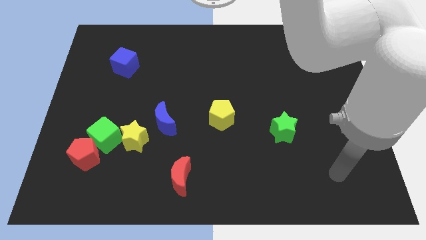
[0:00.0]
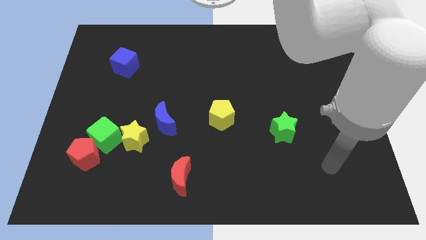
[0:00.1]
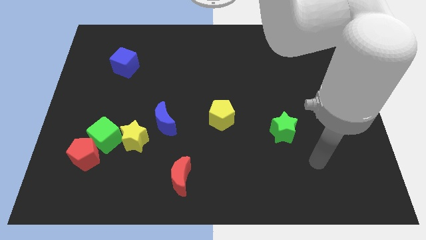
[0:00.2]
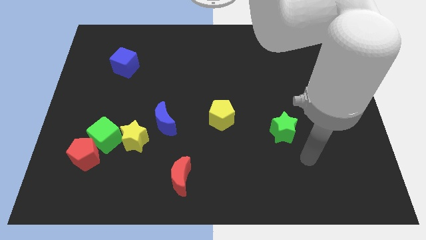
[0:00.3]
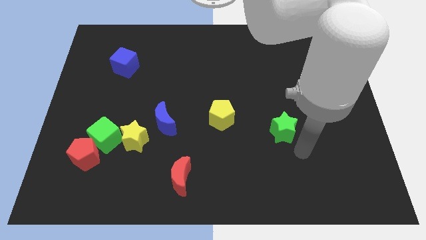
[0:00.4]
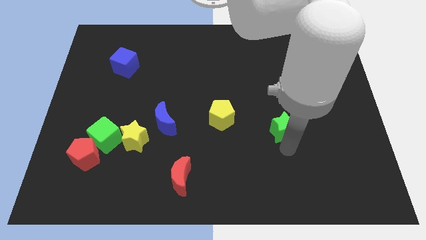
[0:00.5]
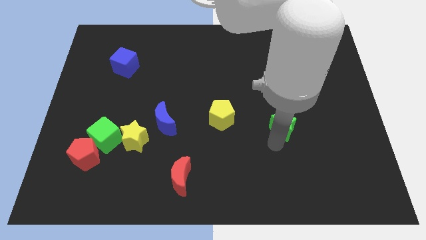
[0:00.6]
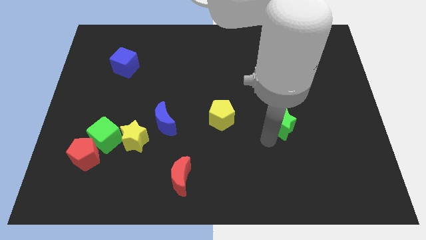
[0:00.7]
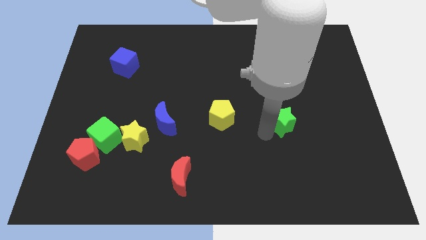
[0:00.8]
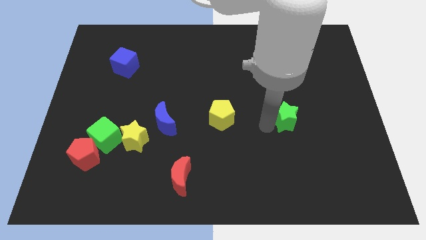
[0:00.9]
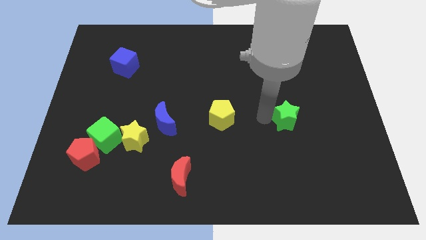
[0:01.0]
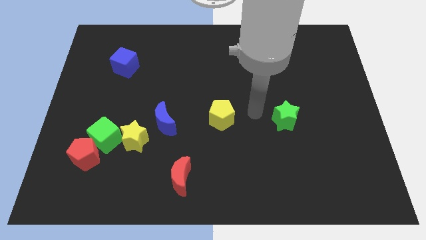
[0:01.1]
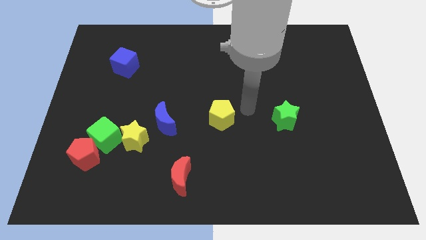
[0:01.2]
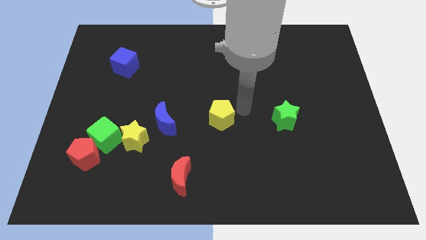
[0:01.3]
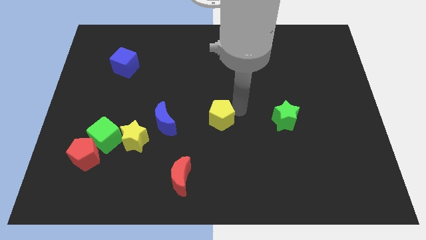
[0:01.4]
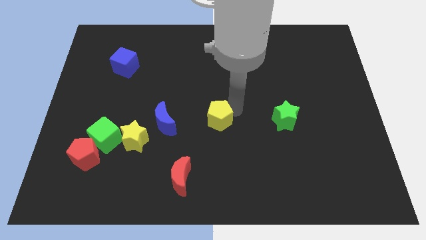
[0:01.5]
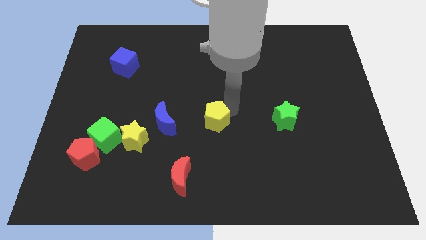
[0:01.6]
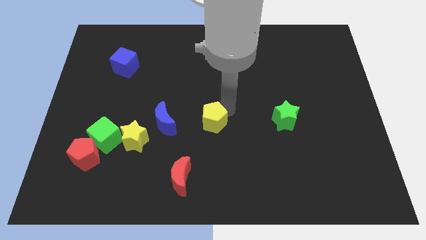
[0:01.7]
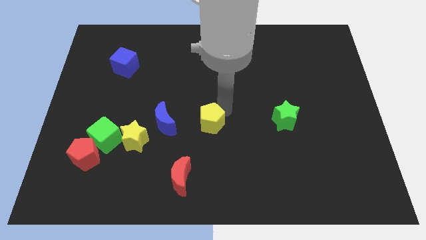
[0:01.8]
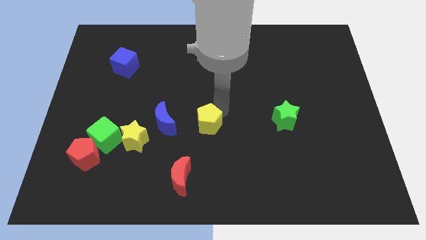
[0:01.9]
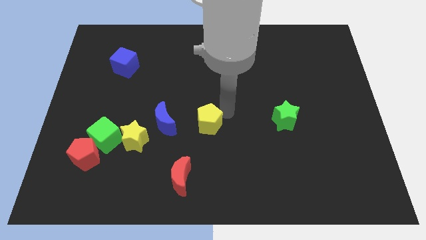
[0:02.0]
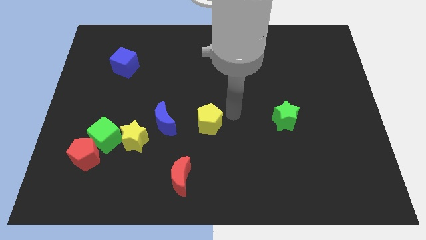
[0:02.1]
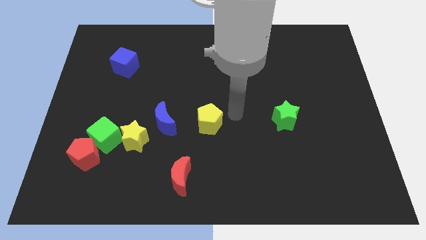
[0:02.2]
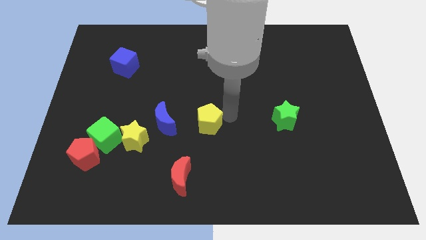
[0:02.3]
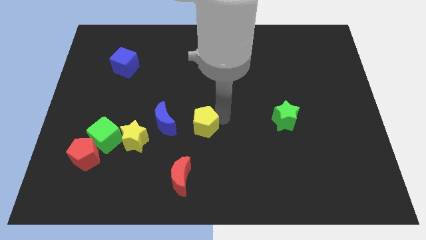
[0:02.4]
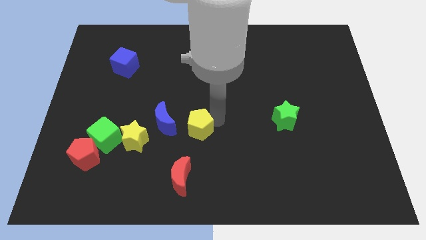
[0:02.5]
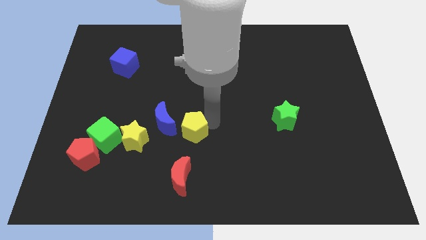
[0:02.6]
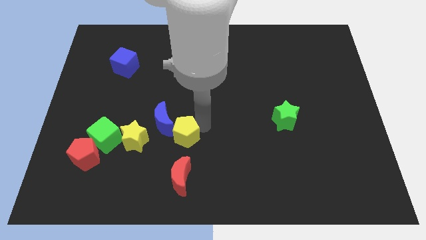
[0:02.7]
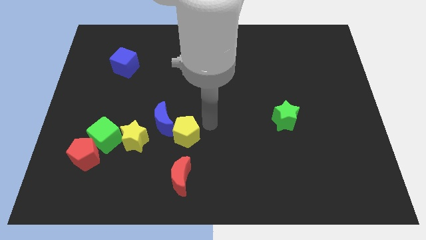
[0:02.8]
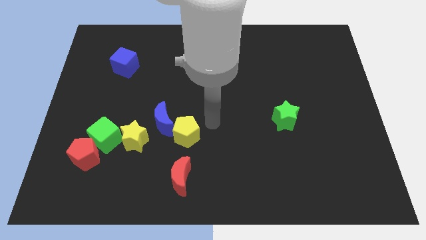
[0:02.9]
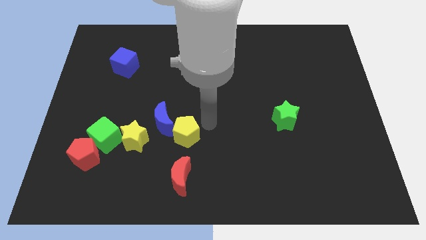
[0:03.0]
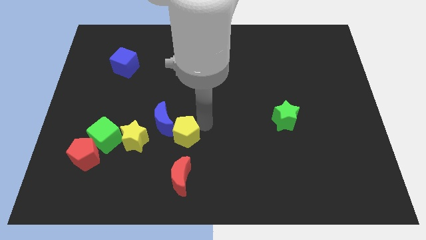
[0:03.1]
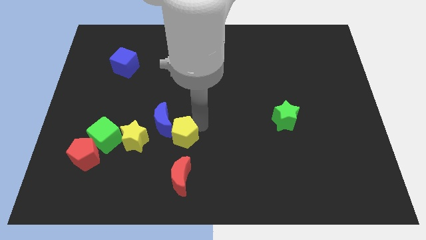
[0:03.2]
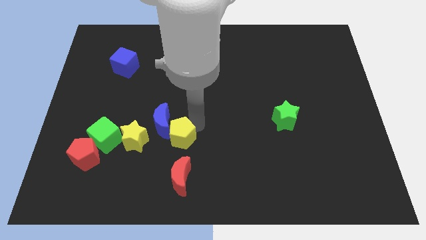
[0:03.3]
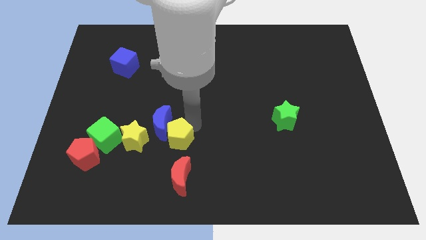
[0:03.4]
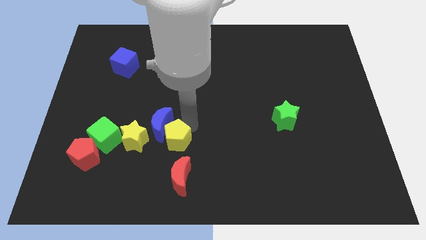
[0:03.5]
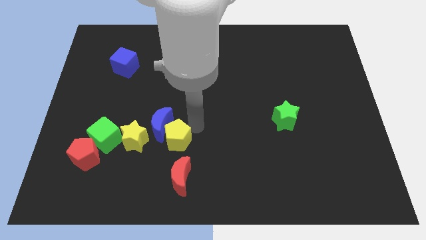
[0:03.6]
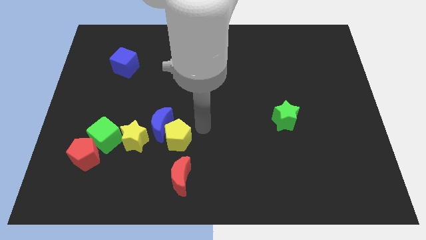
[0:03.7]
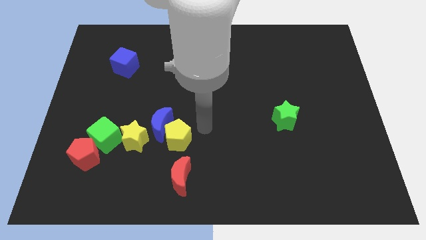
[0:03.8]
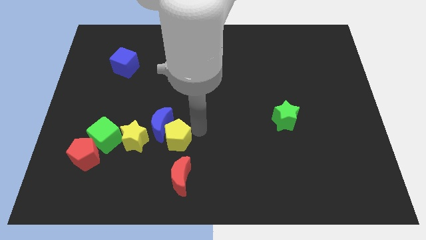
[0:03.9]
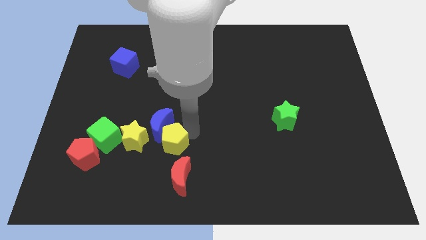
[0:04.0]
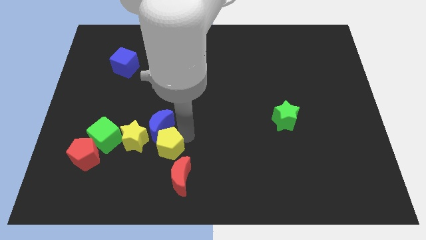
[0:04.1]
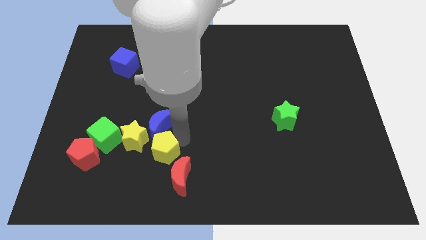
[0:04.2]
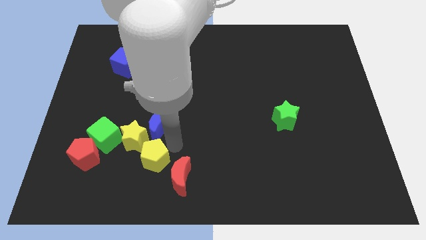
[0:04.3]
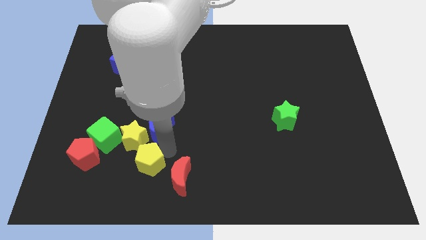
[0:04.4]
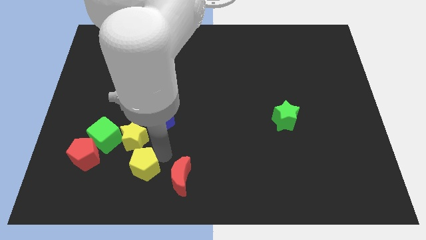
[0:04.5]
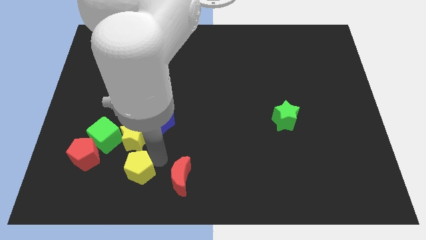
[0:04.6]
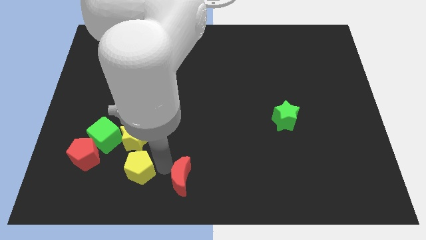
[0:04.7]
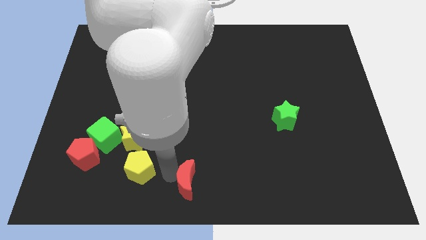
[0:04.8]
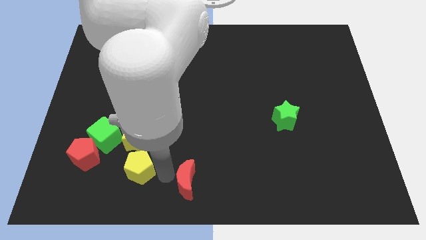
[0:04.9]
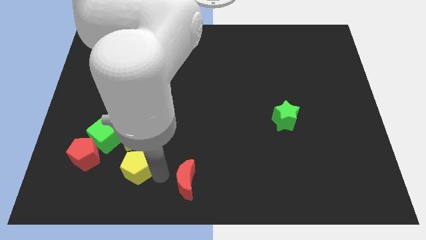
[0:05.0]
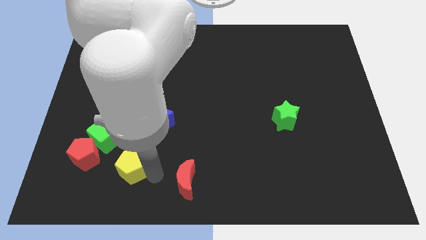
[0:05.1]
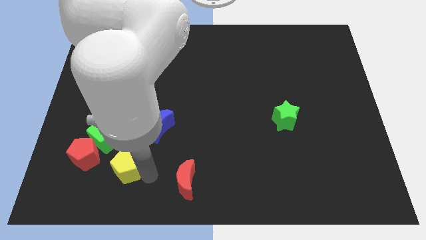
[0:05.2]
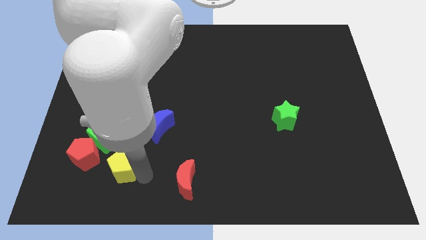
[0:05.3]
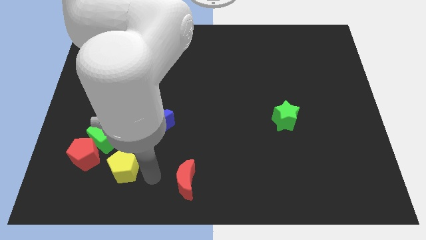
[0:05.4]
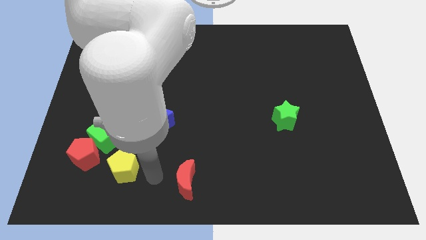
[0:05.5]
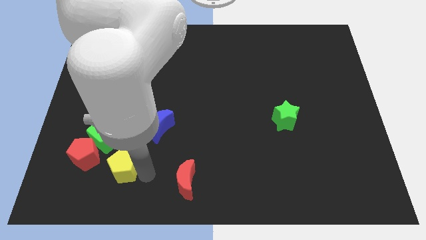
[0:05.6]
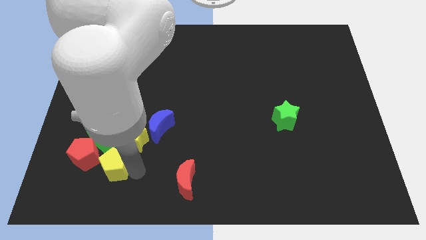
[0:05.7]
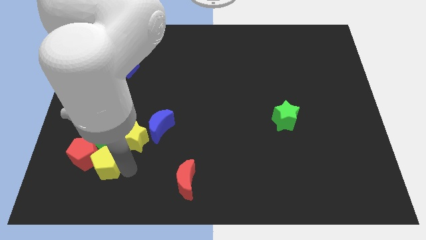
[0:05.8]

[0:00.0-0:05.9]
push the yellow pentagon to the red pentagon
